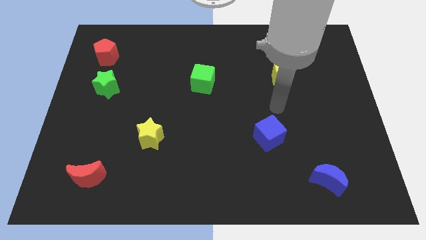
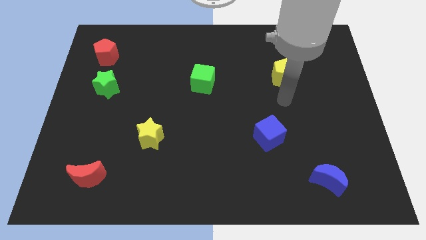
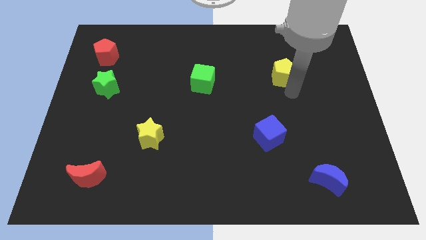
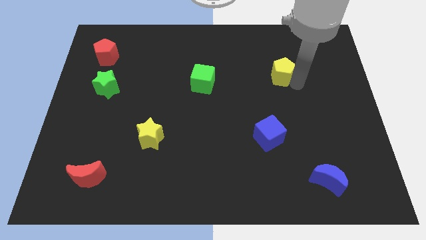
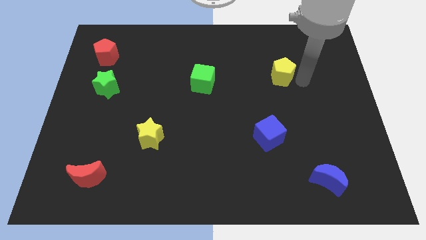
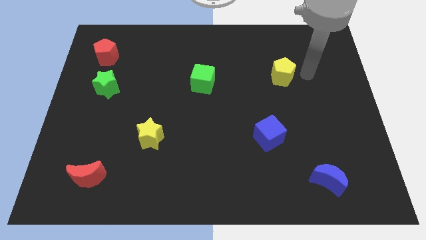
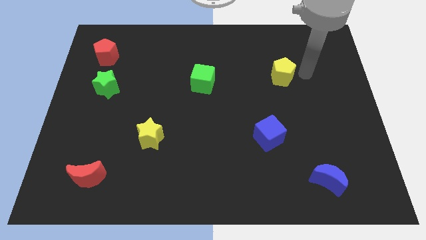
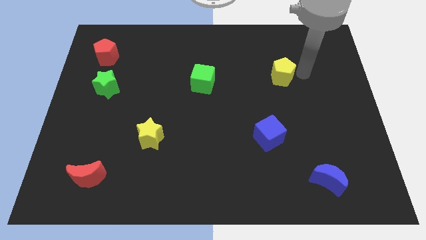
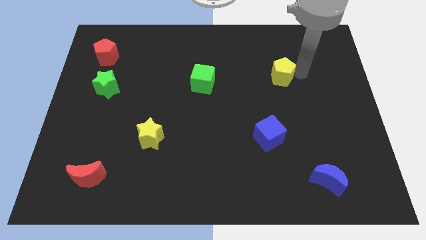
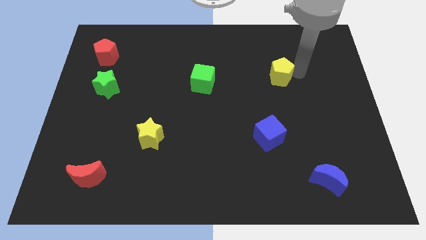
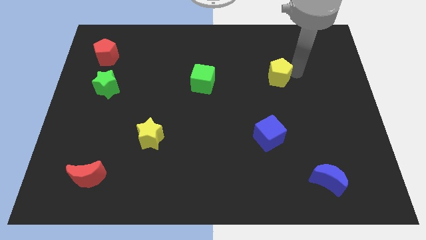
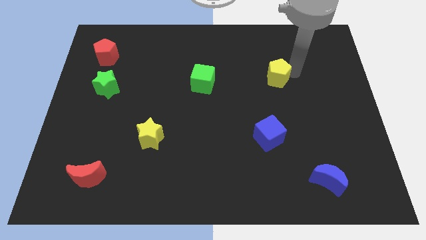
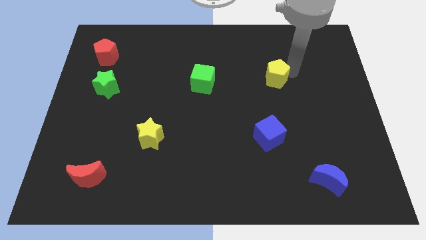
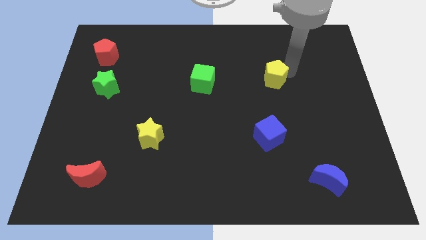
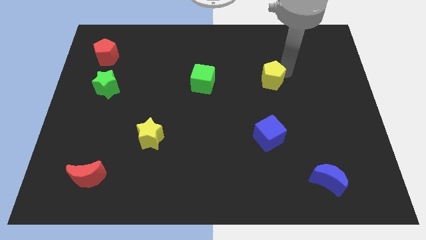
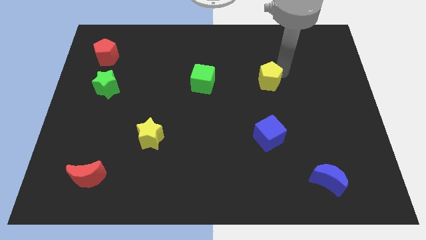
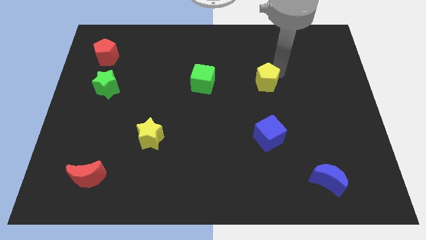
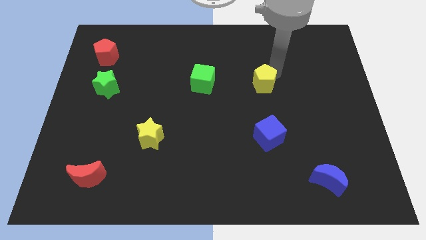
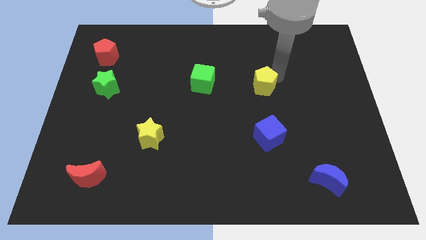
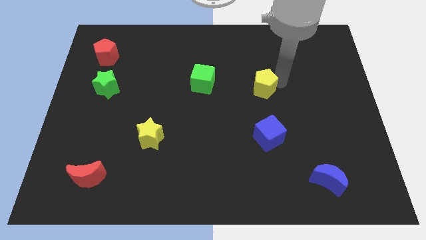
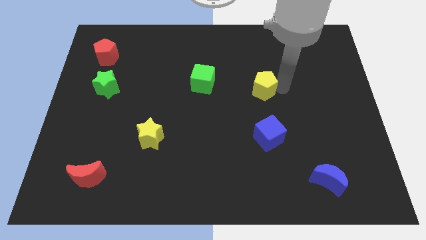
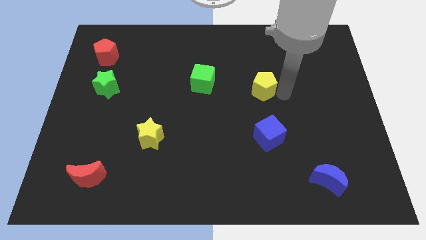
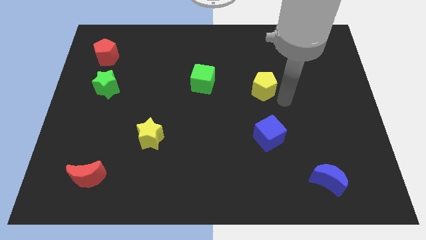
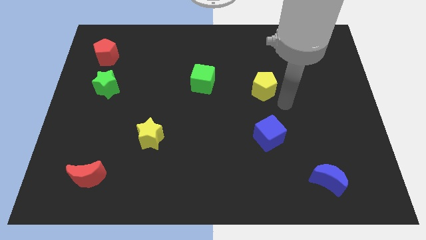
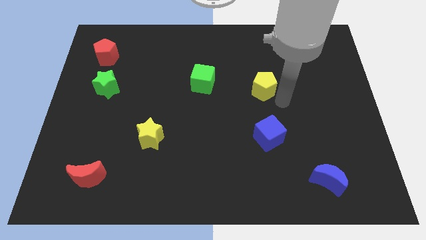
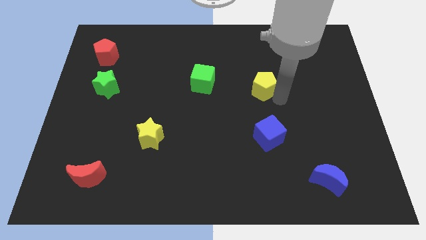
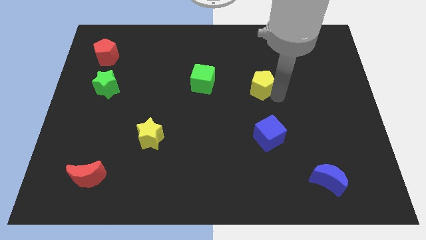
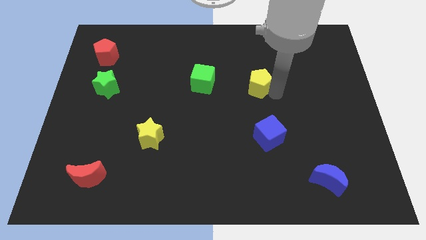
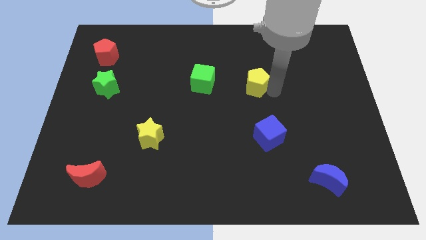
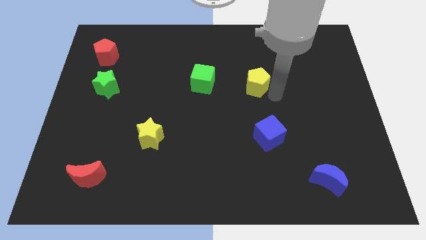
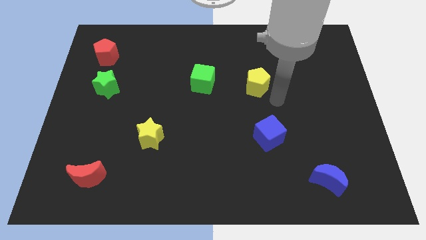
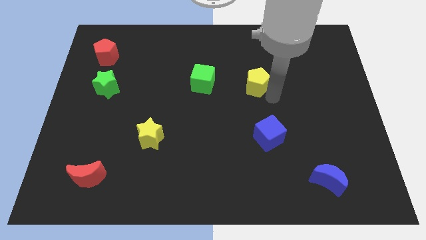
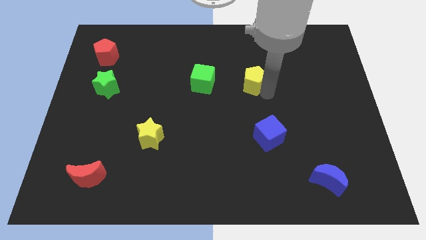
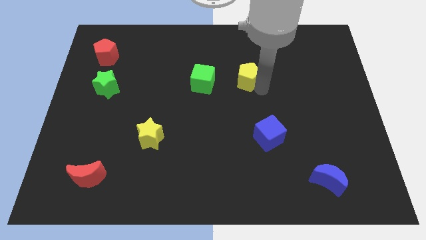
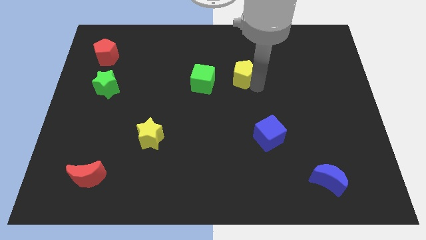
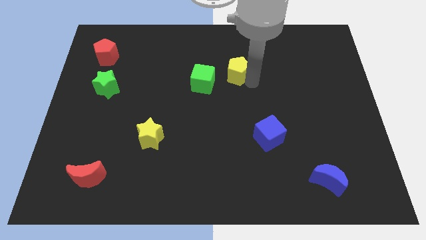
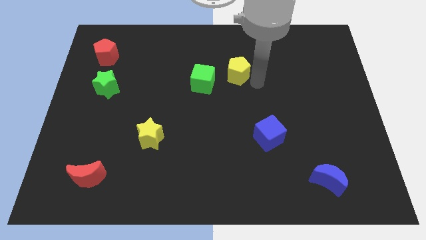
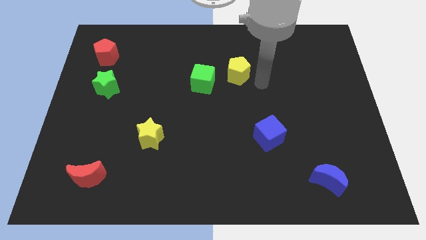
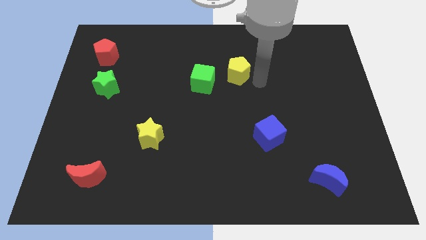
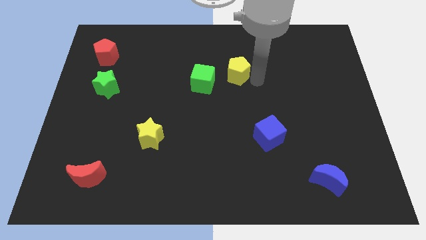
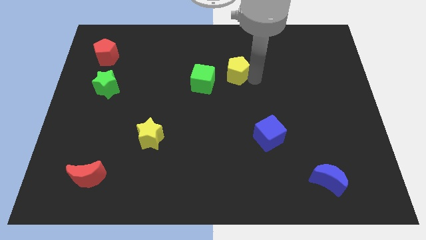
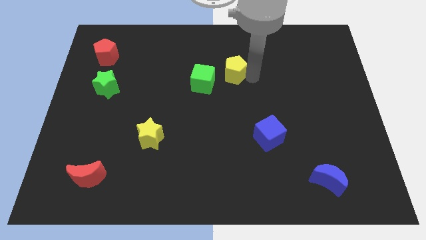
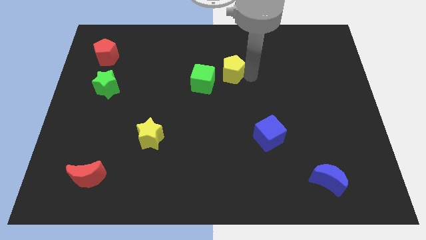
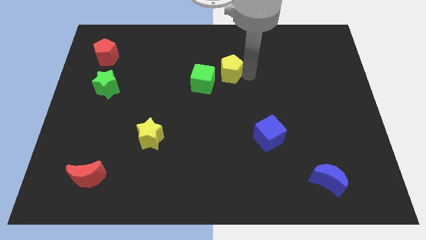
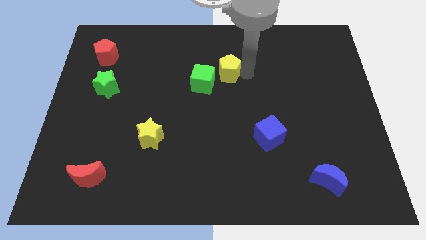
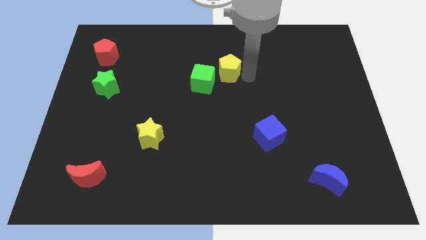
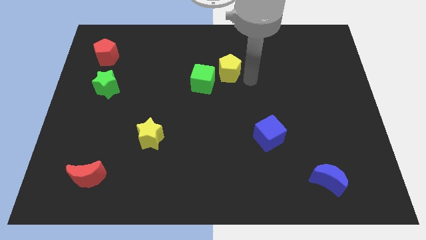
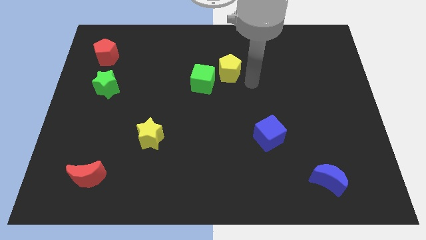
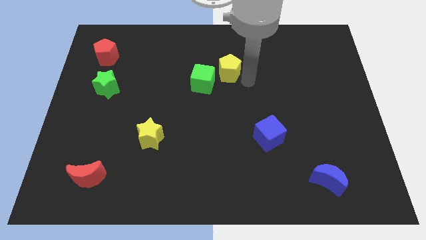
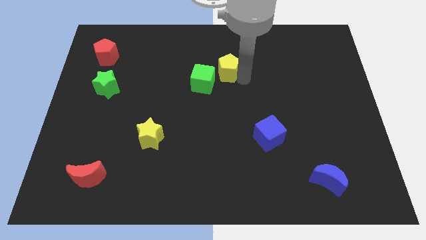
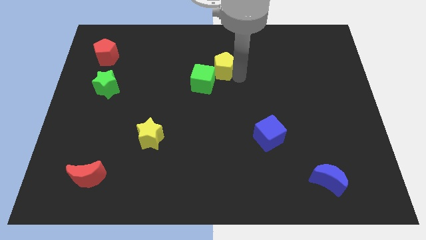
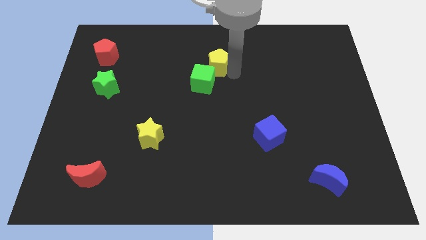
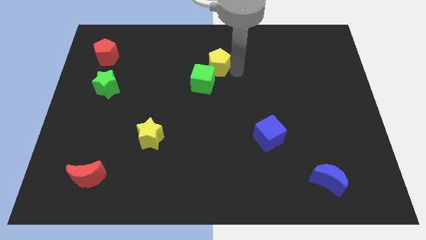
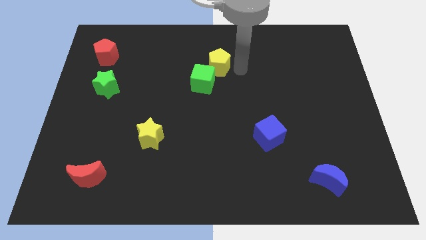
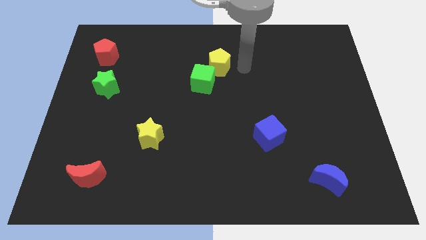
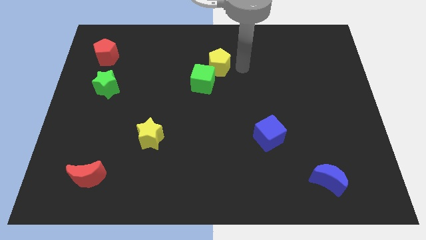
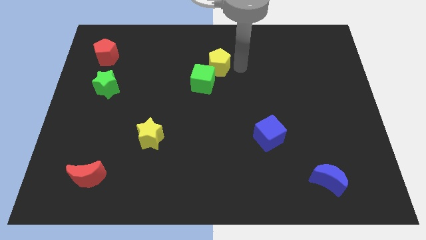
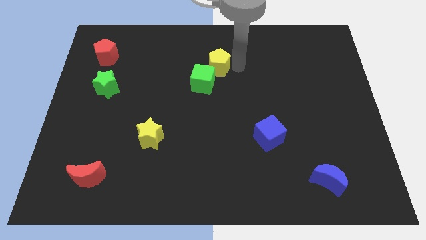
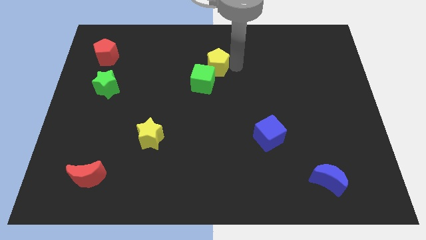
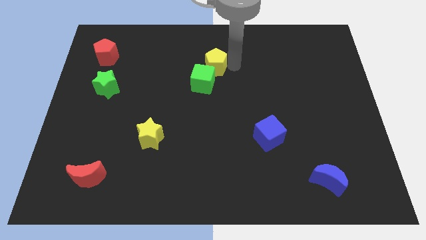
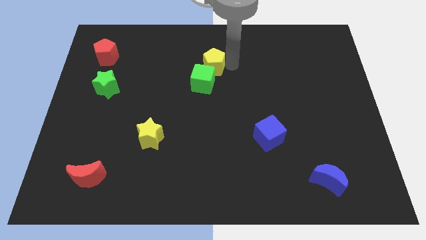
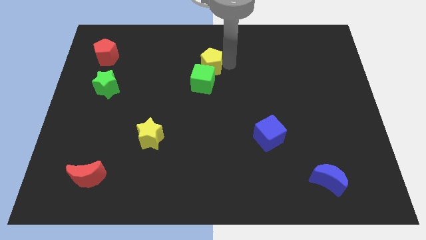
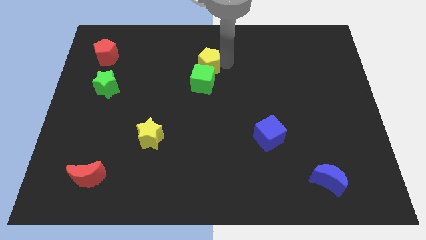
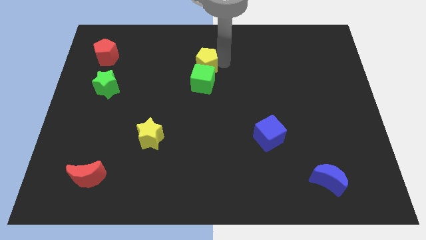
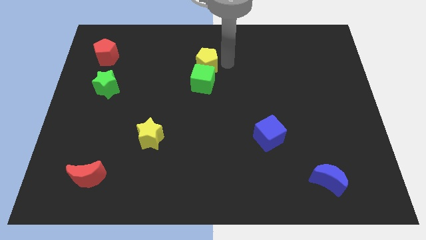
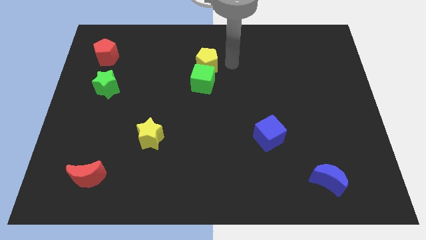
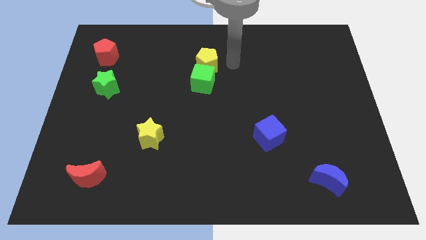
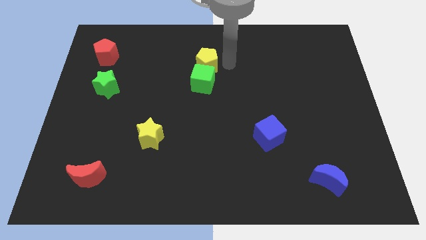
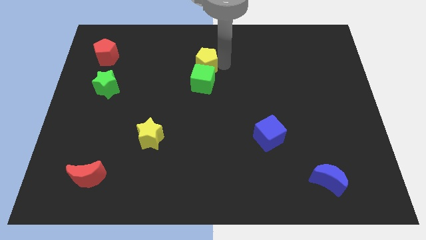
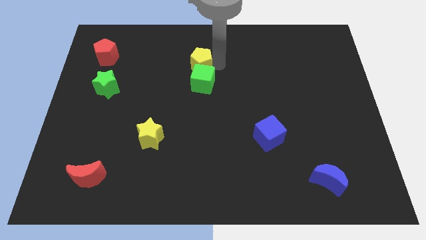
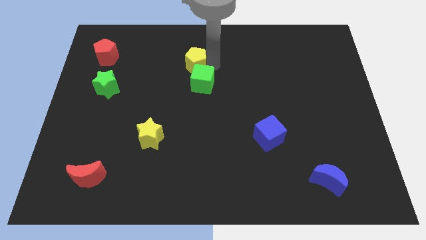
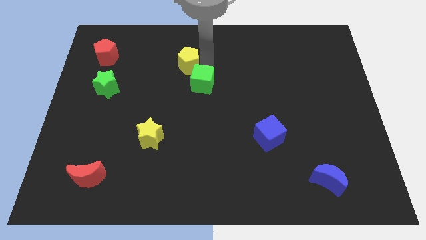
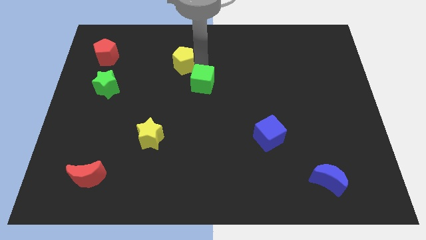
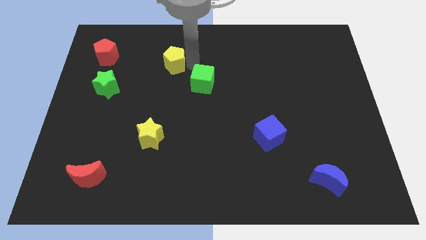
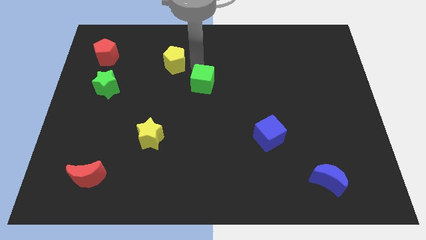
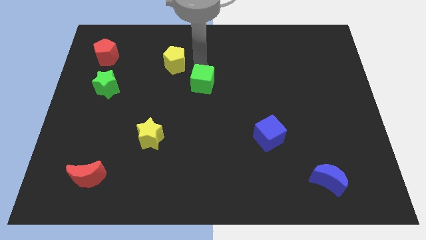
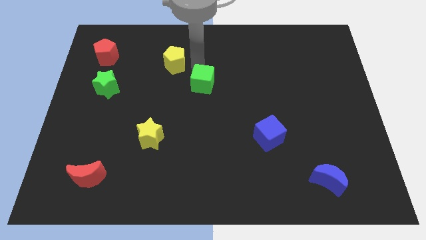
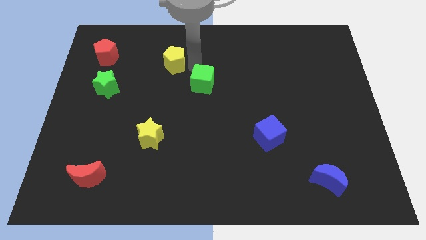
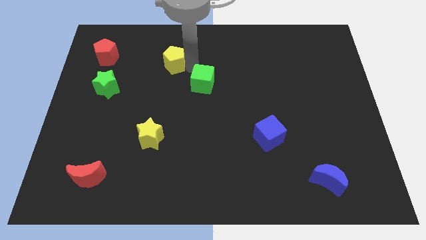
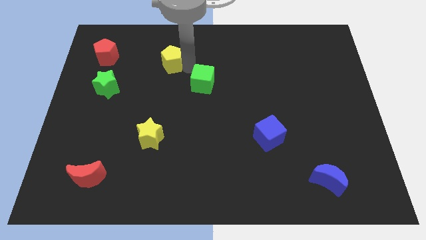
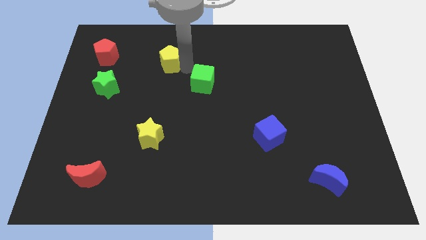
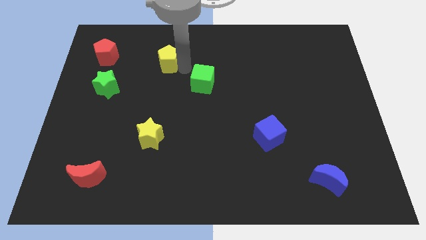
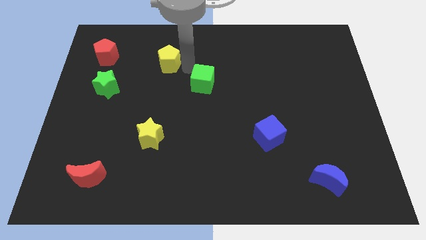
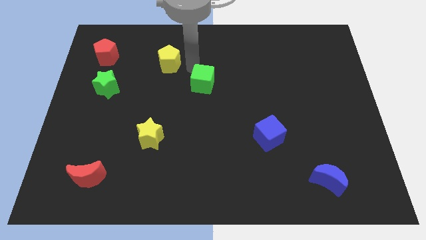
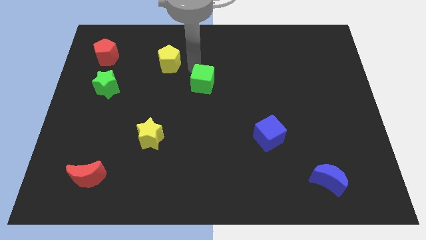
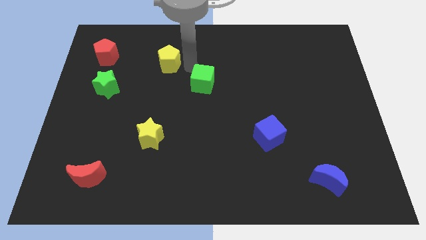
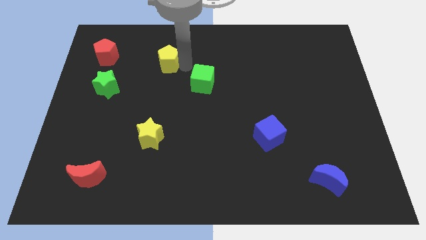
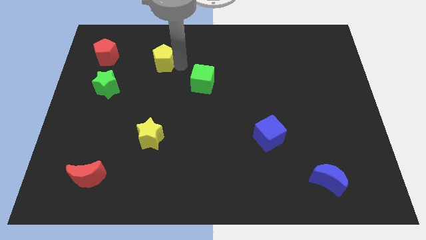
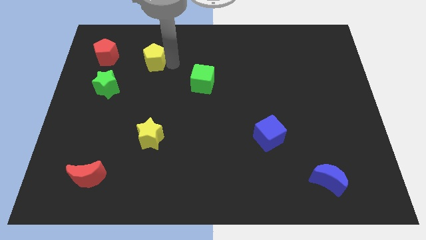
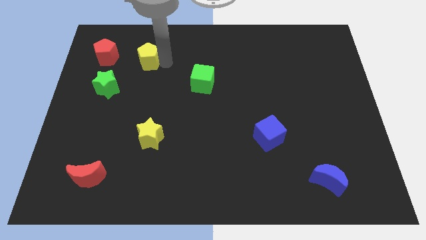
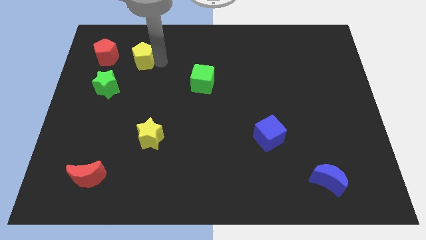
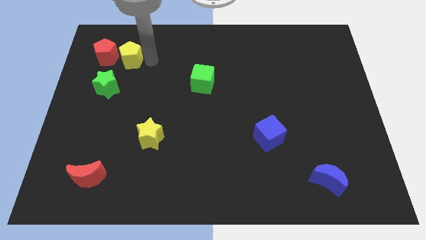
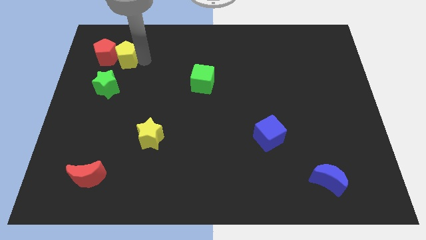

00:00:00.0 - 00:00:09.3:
push the yellow pentagon close to the red pentagon
